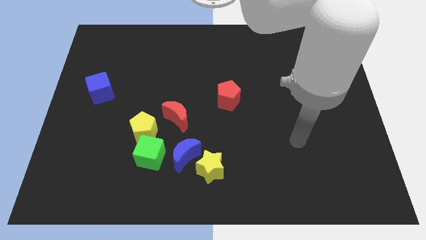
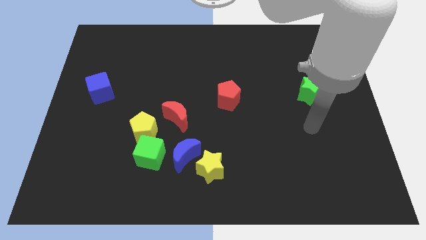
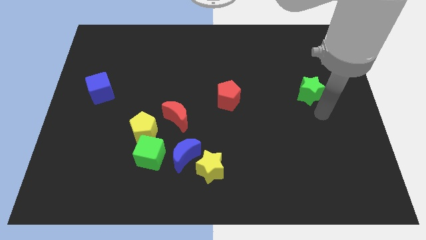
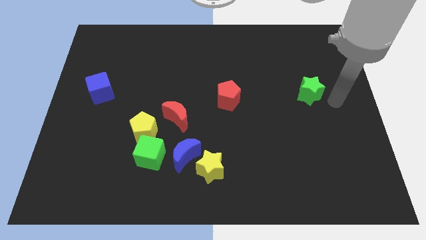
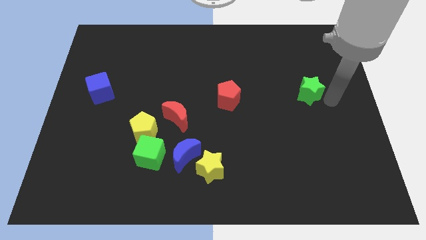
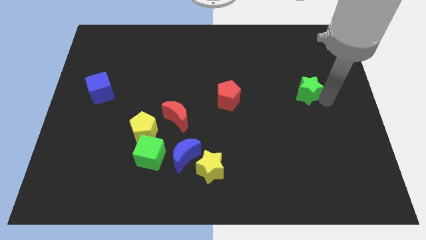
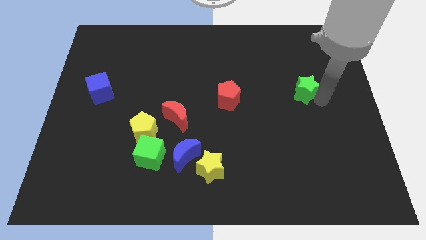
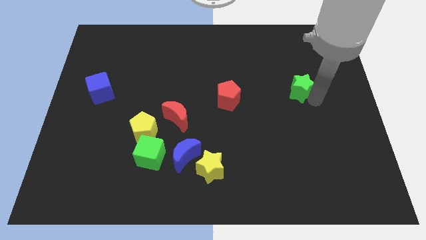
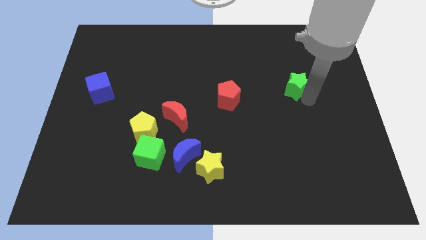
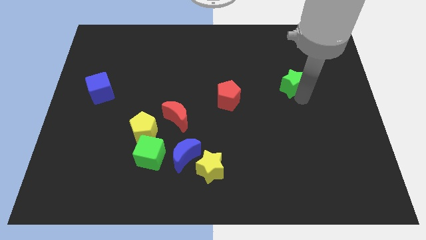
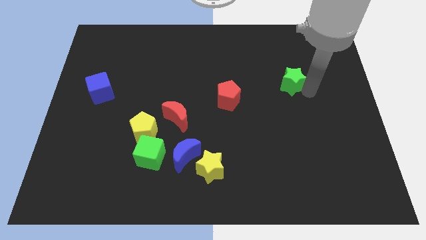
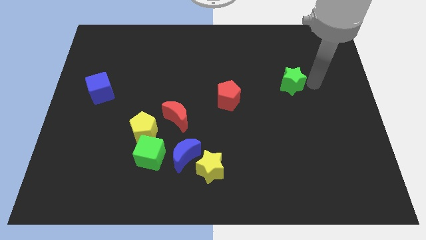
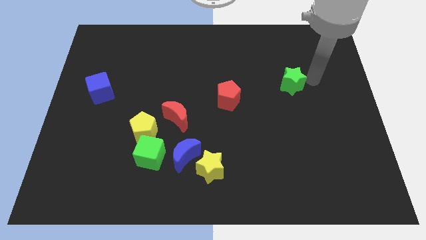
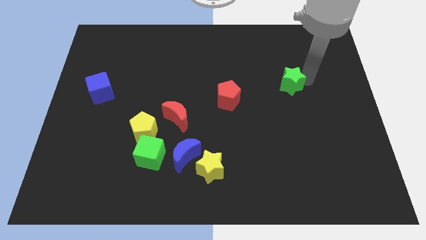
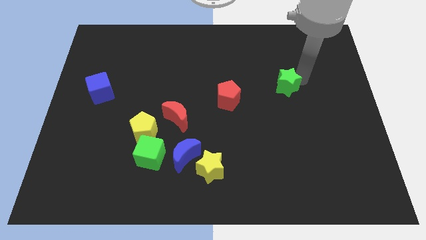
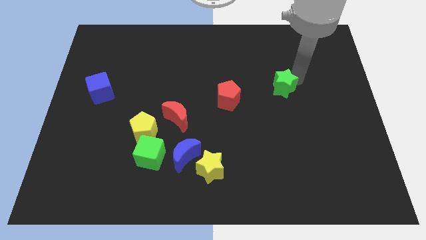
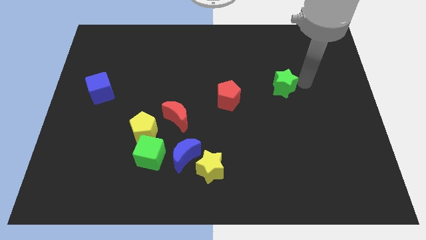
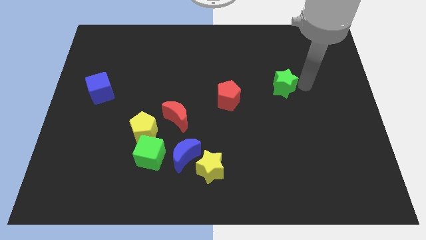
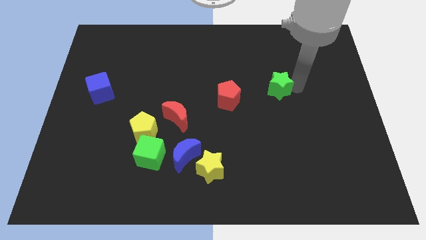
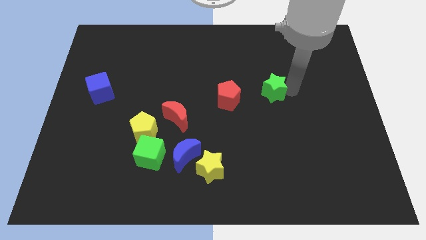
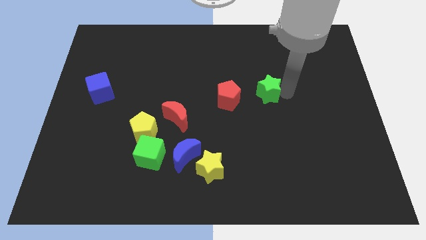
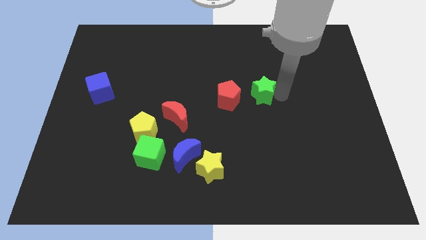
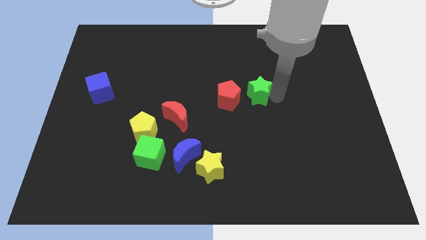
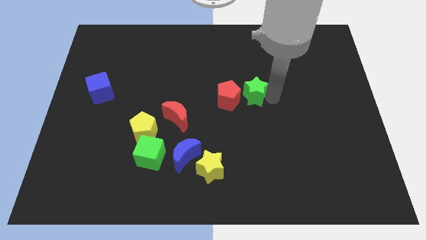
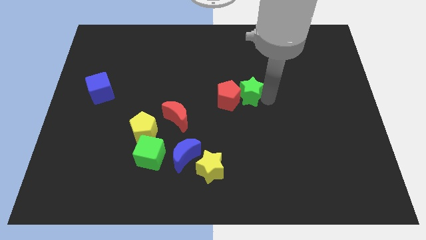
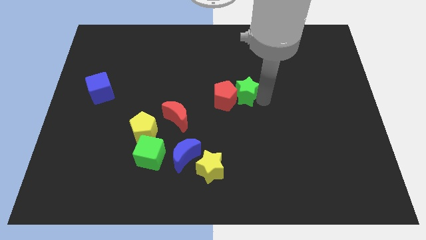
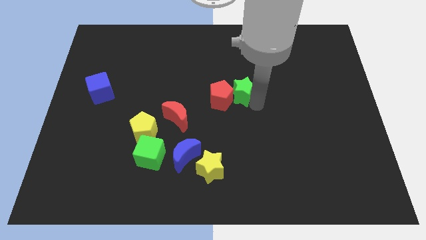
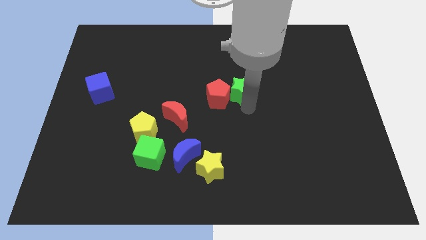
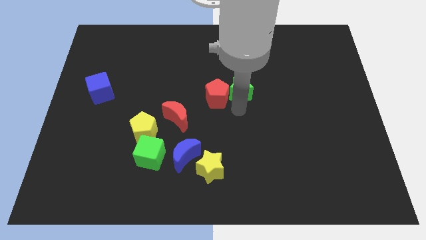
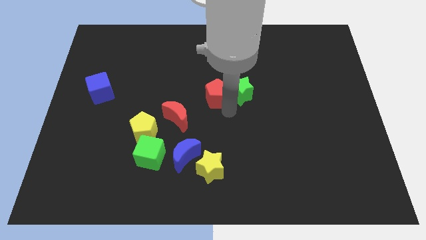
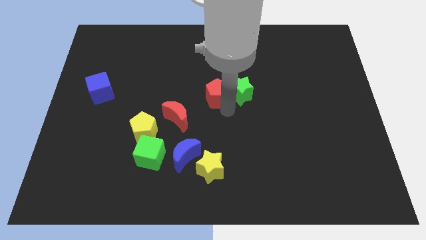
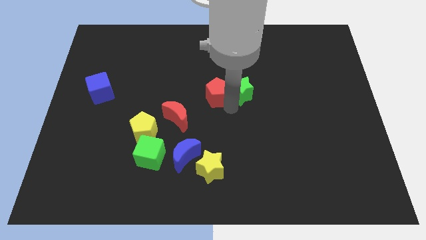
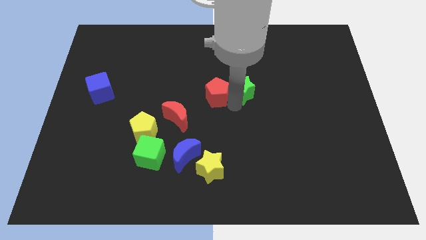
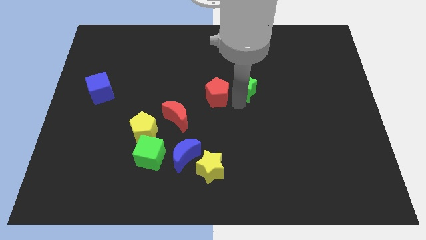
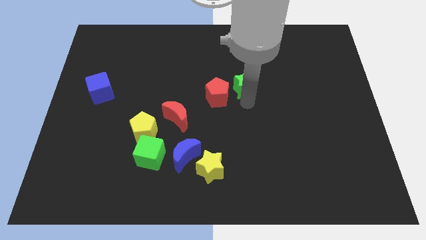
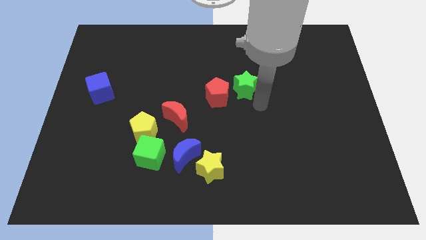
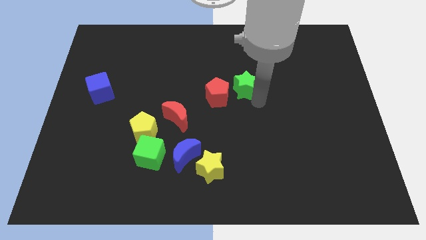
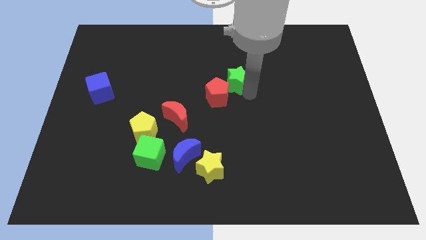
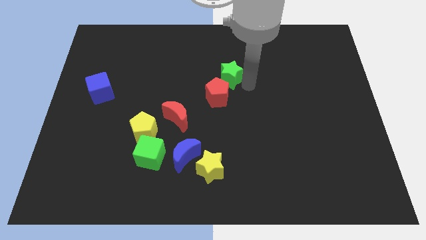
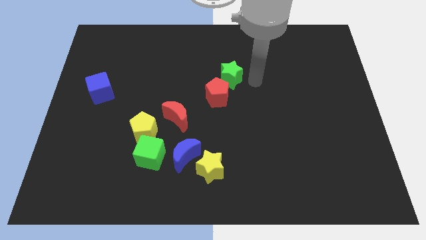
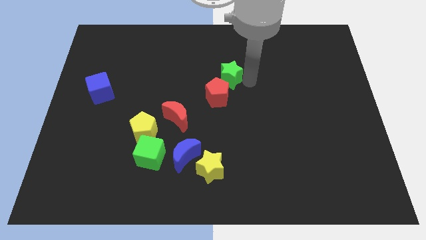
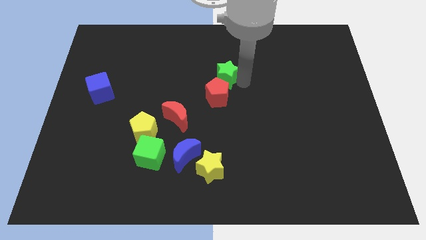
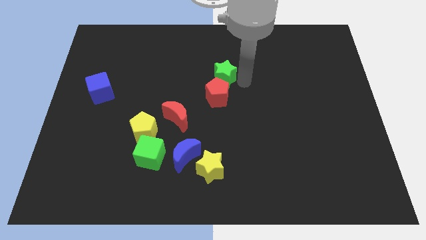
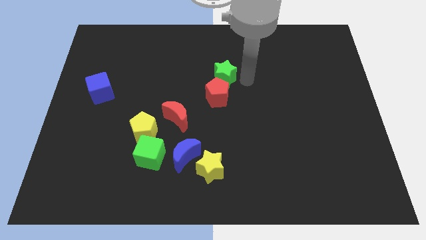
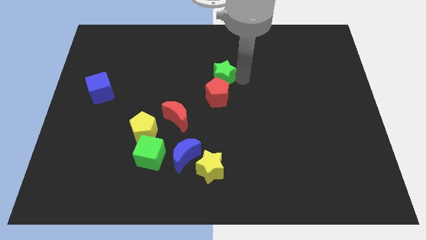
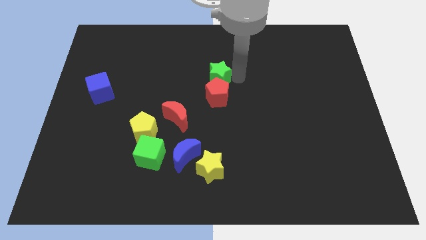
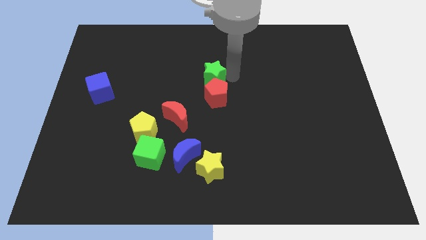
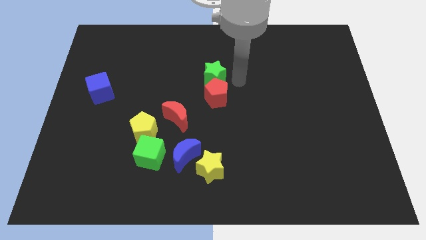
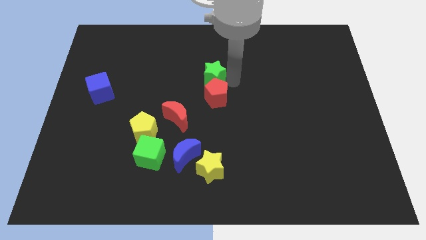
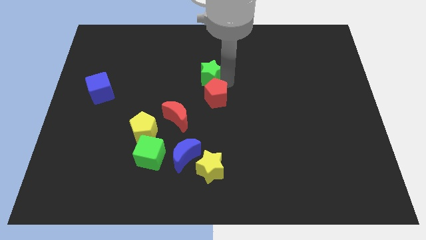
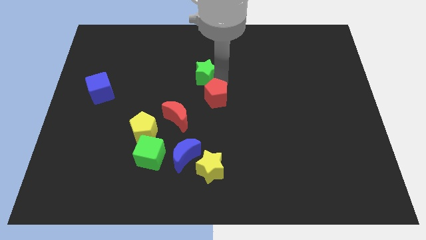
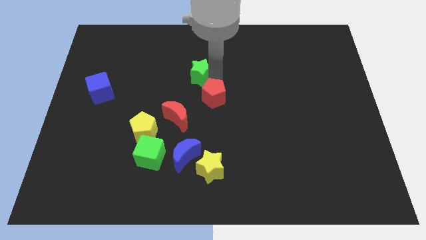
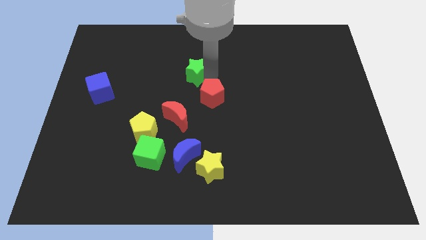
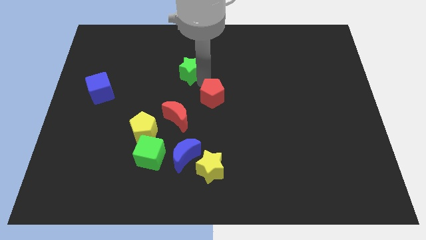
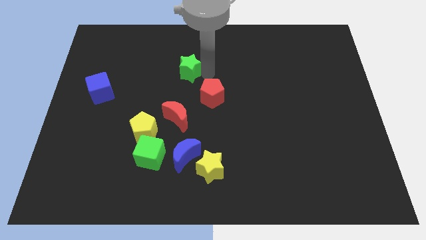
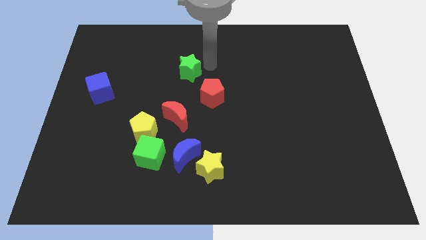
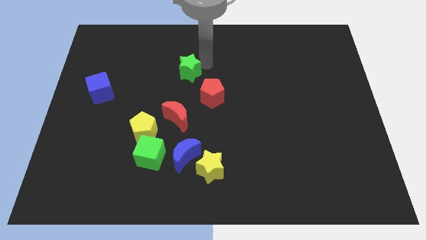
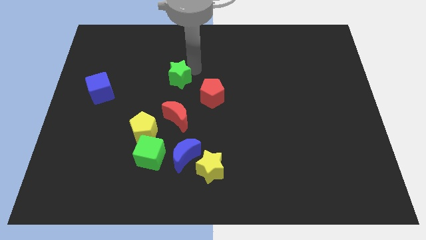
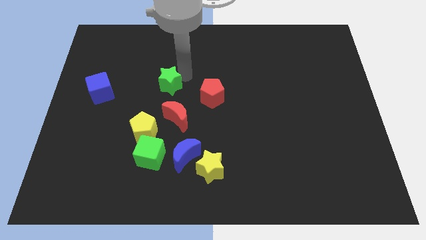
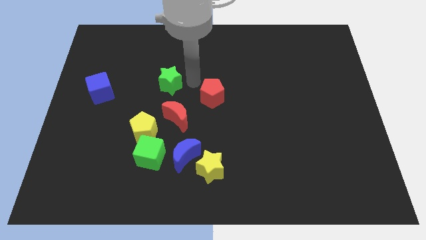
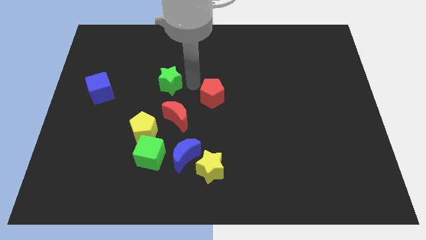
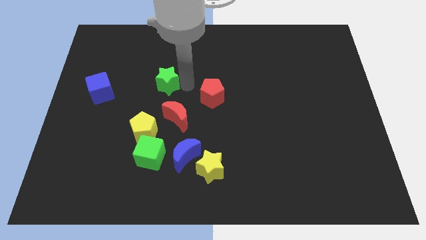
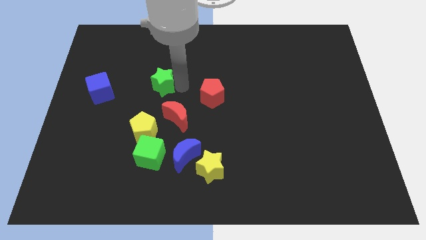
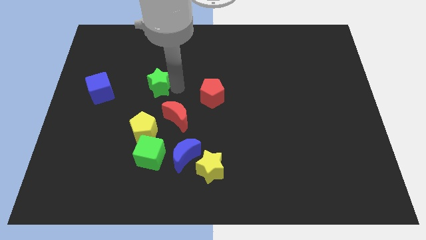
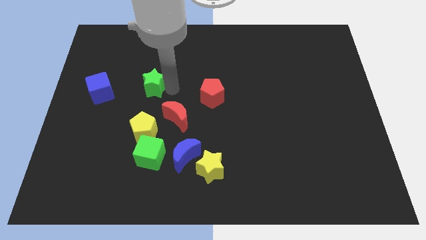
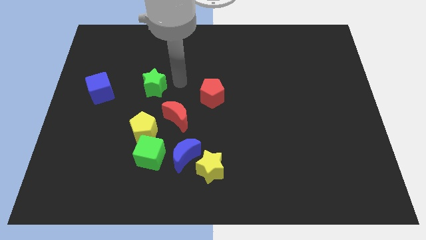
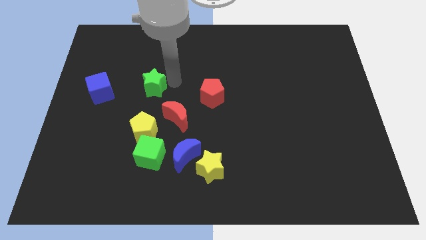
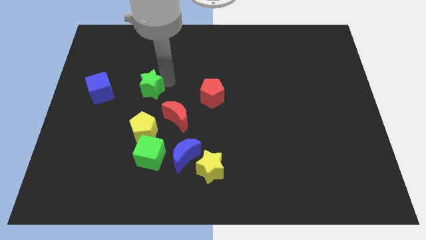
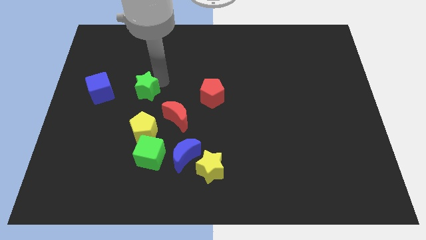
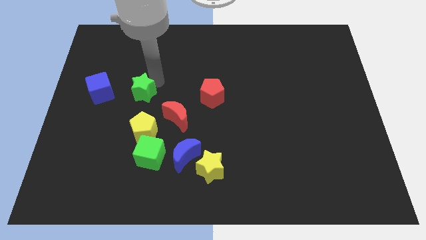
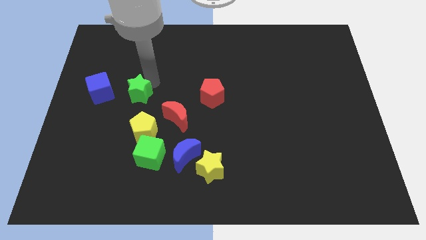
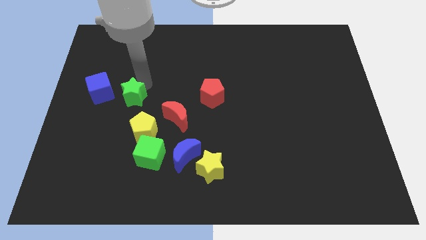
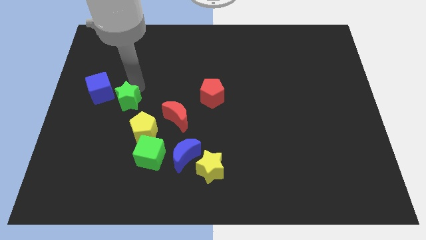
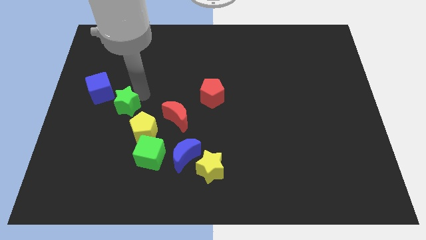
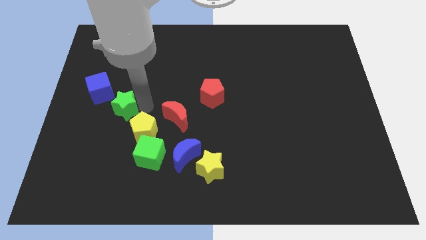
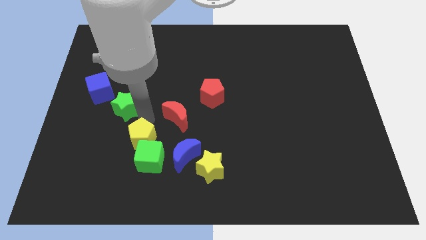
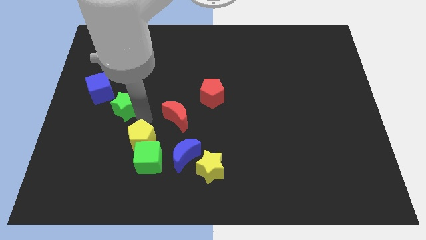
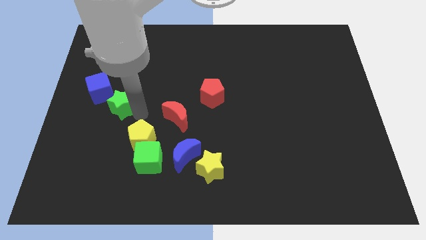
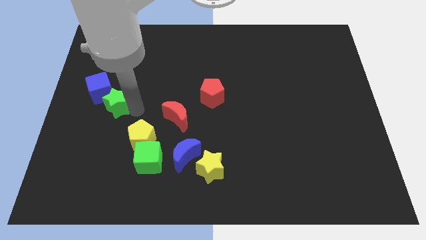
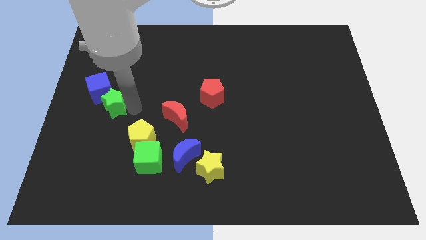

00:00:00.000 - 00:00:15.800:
put the green star next to the blue cube
